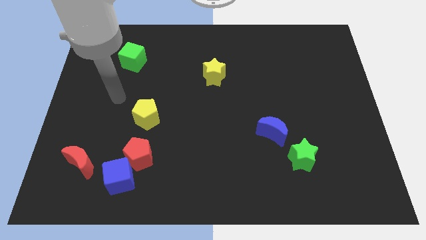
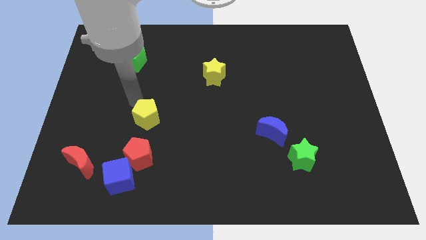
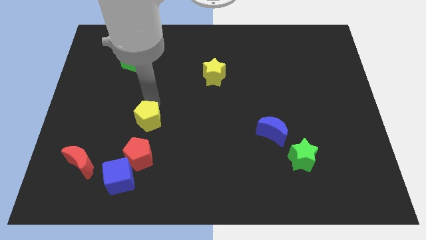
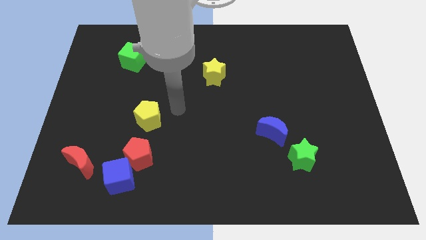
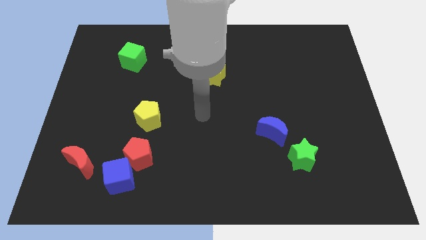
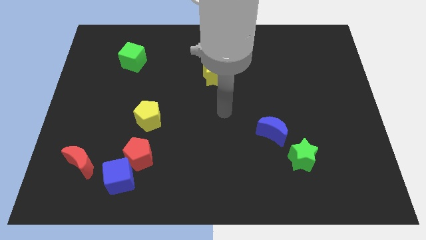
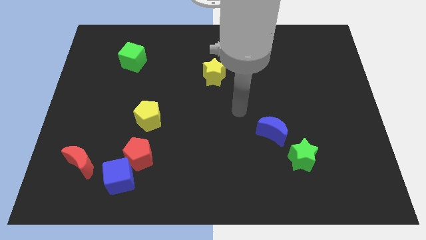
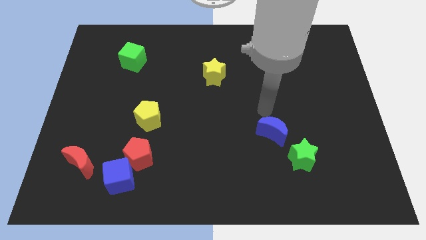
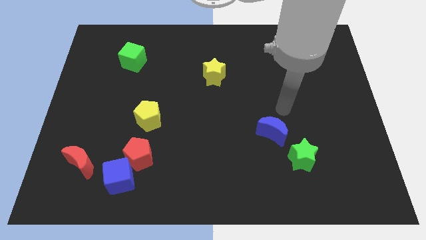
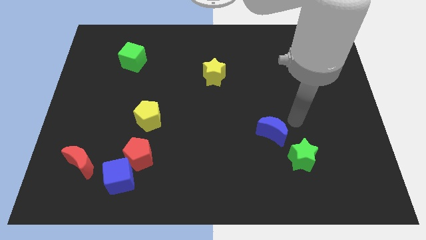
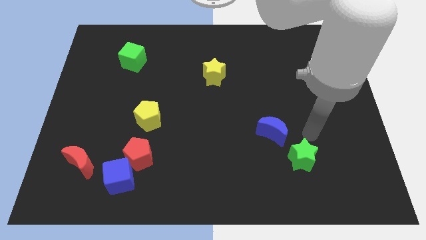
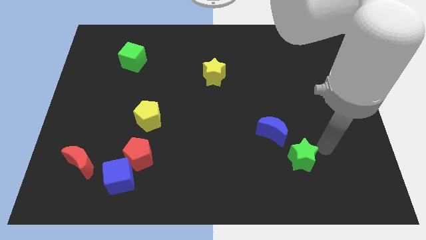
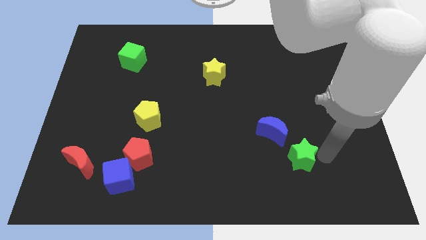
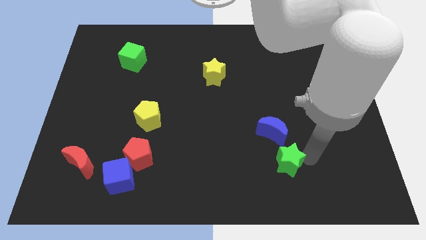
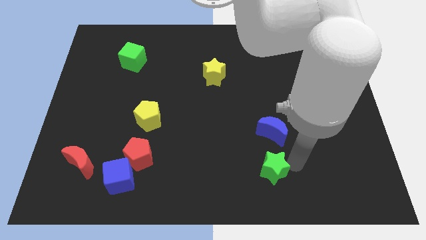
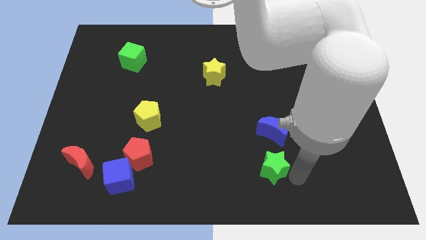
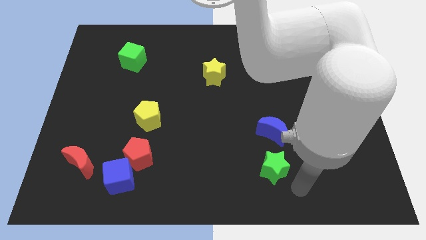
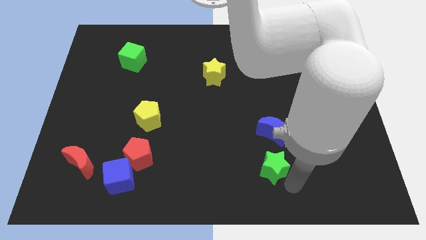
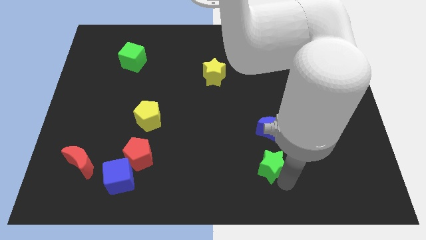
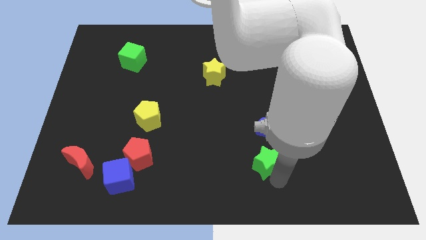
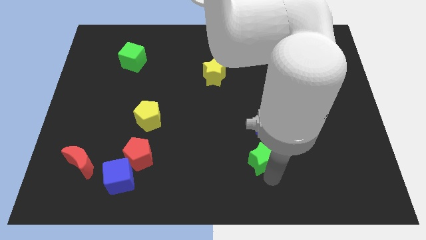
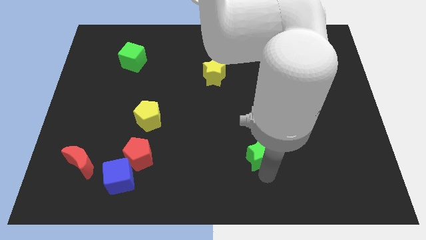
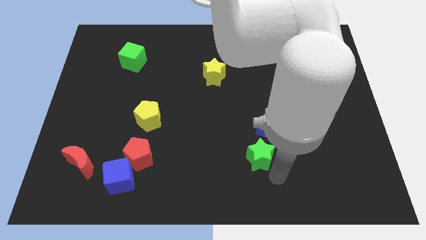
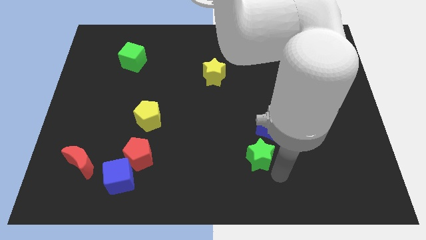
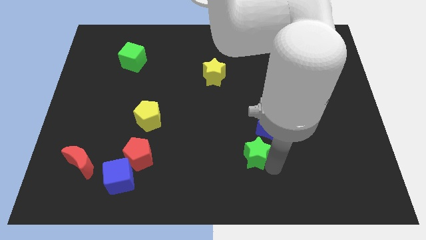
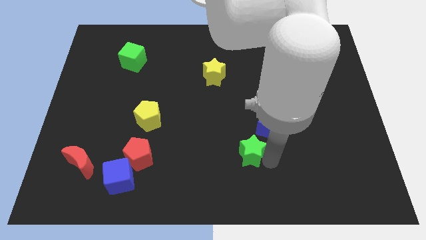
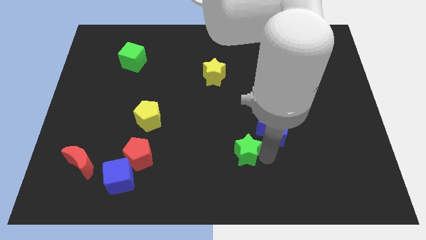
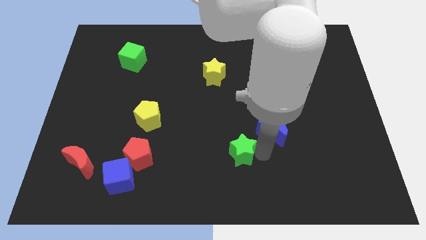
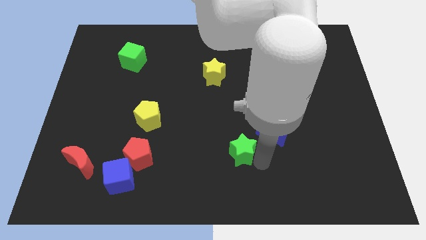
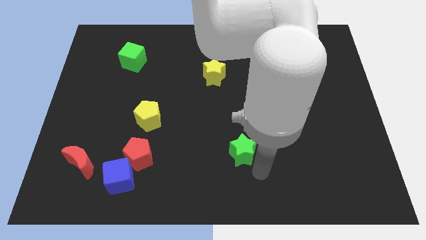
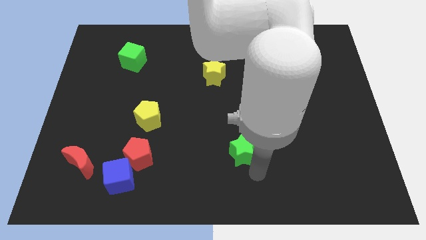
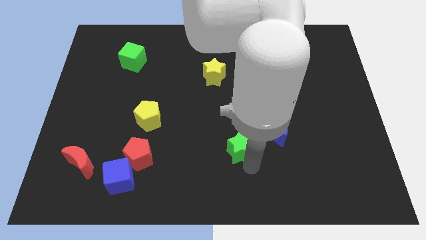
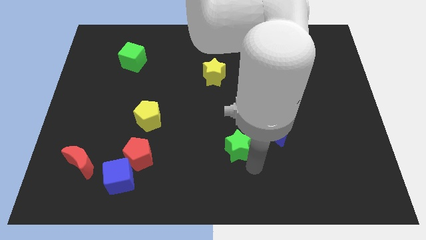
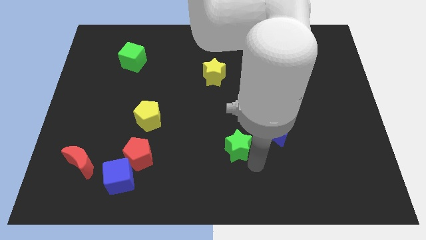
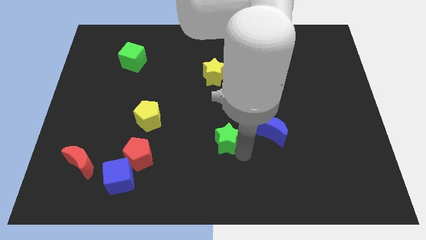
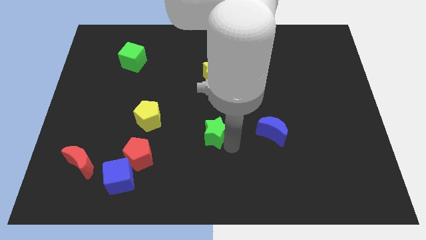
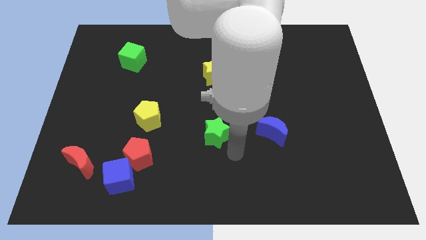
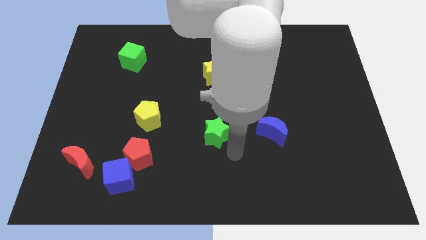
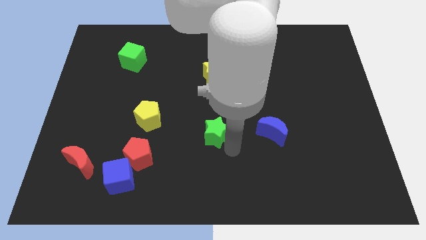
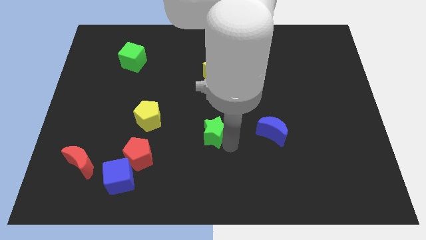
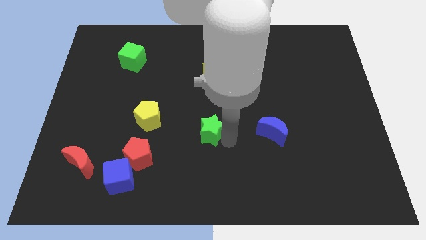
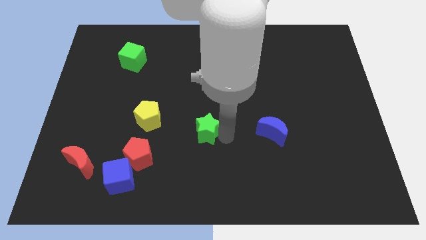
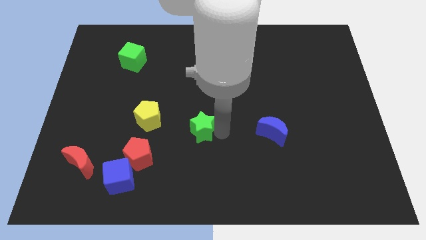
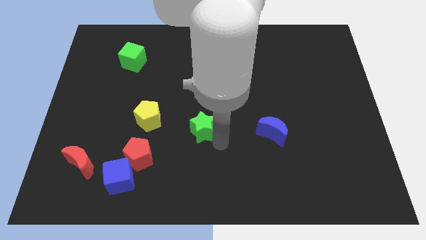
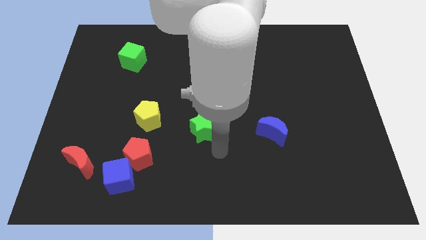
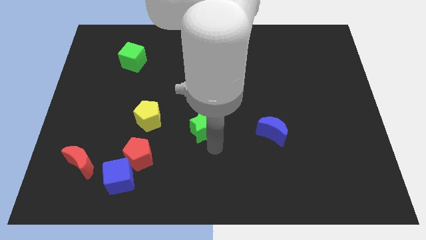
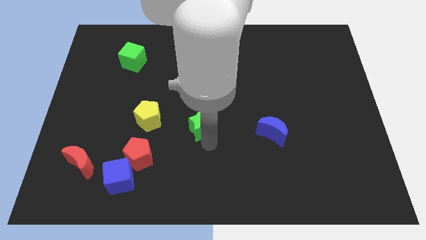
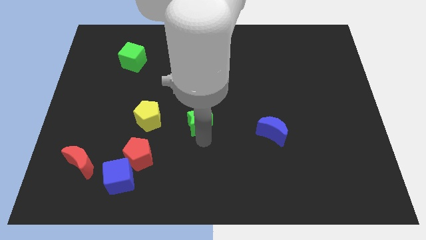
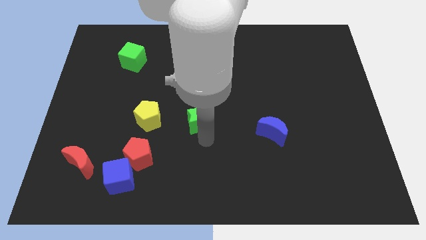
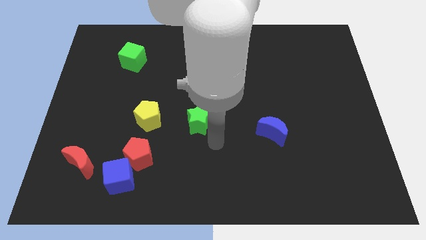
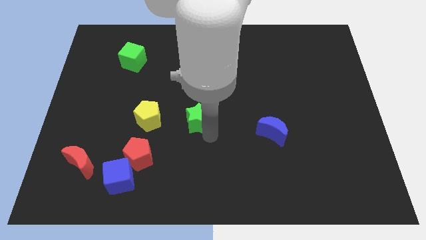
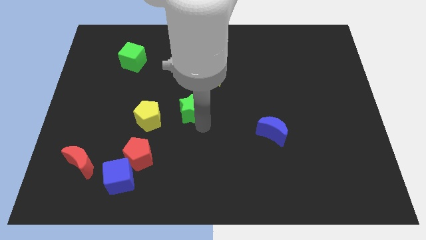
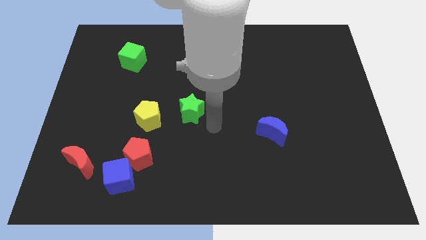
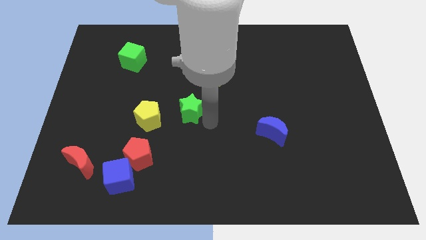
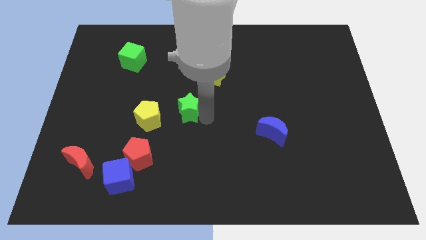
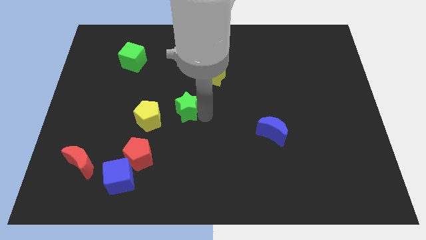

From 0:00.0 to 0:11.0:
put the green star diagonally up and to the right of the yellow pentagon

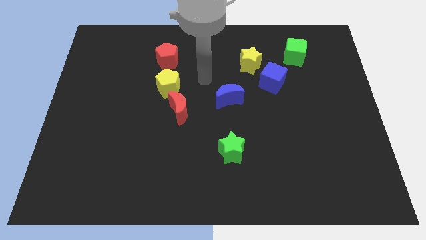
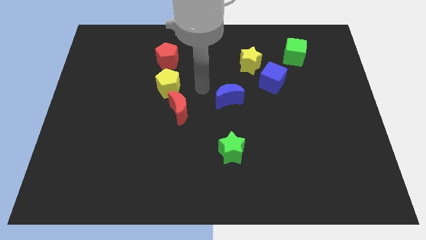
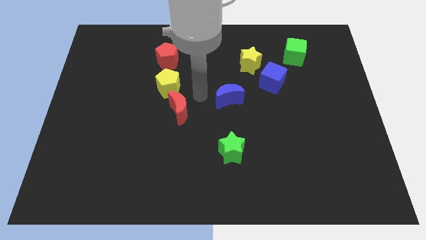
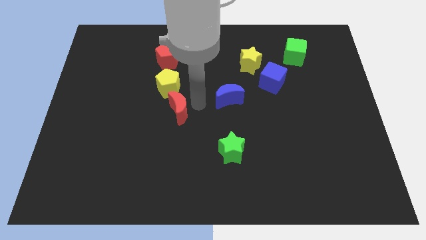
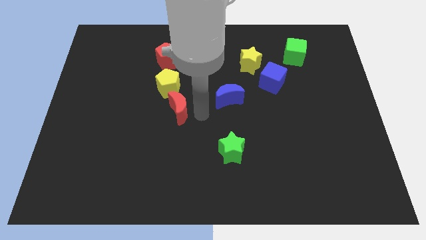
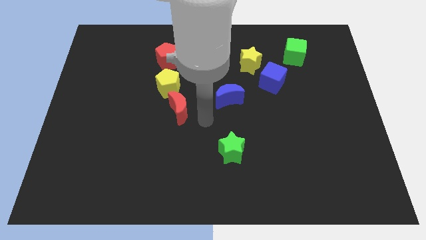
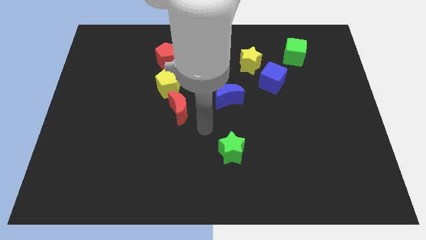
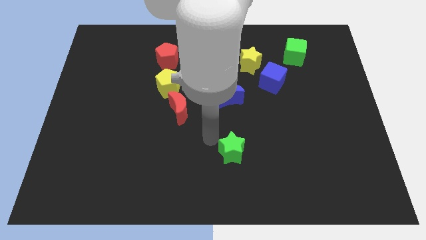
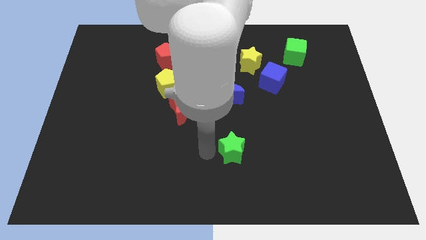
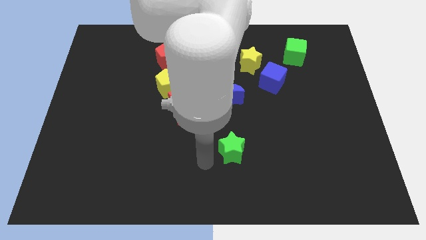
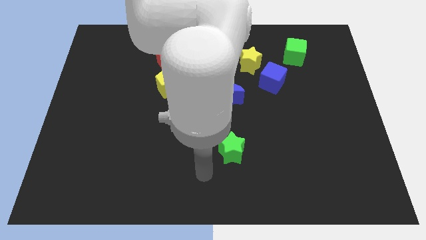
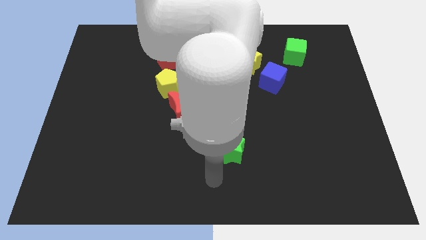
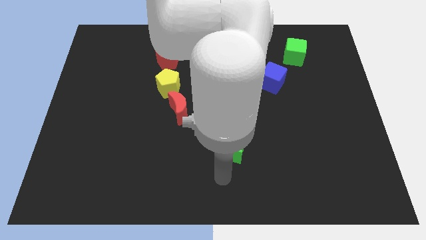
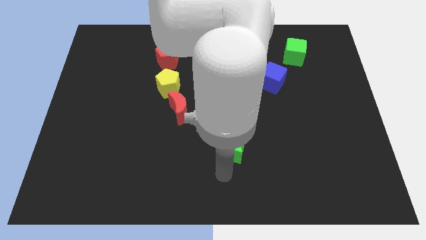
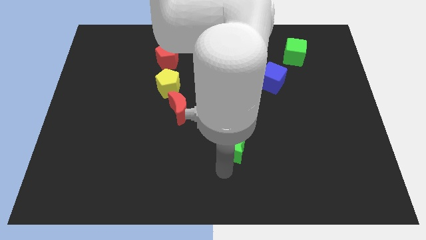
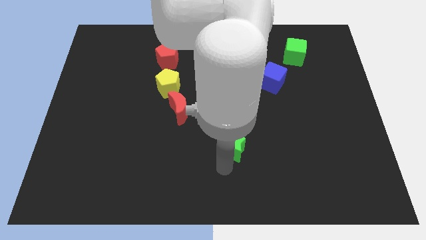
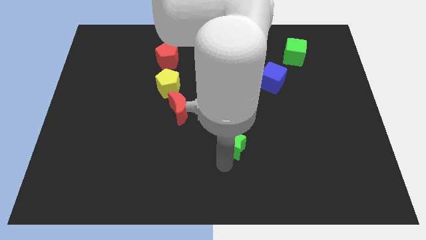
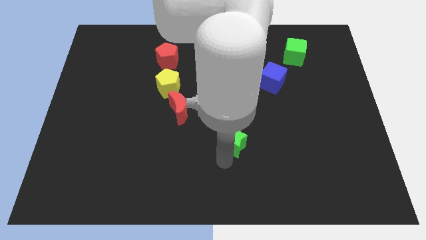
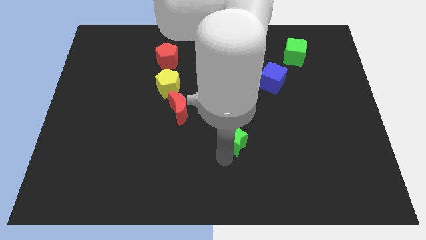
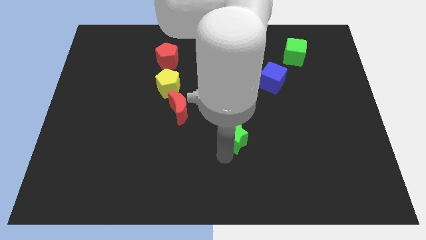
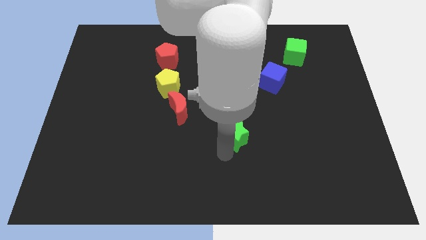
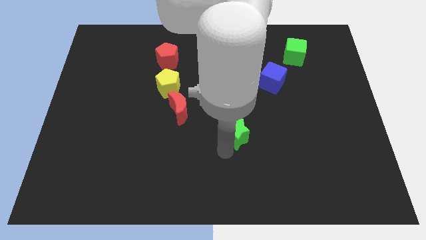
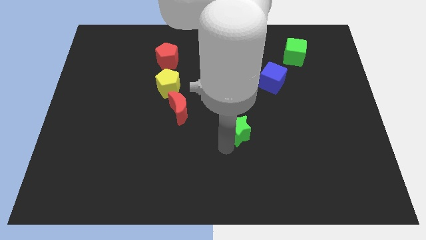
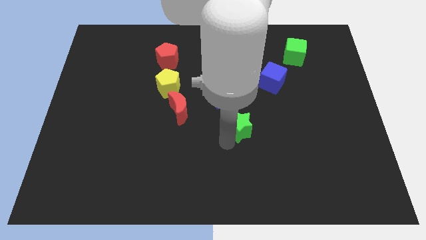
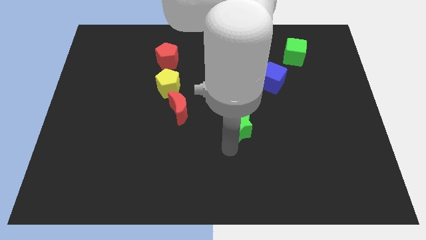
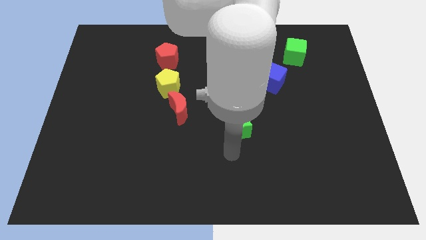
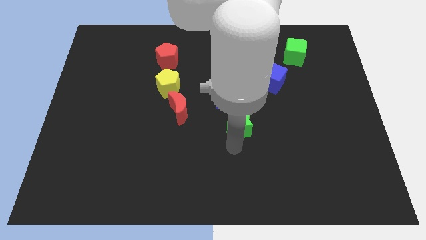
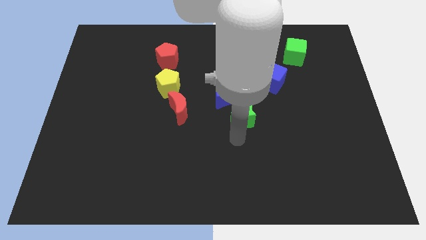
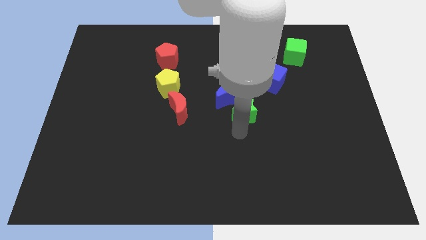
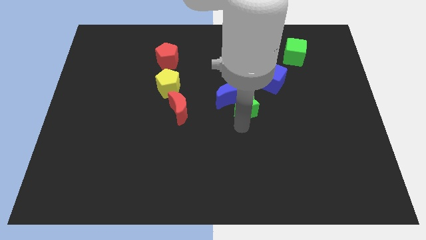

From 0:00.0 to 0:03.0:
push the green star diagonally down and to the left of the blue cube
